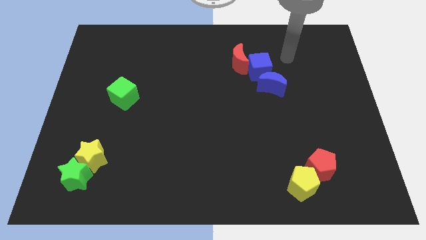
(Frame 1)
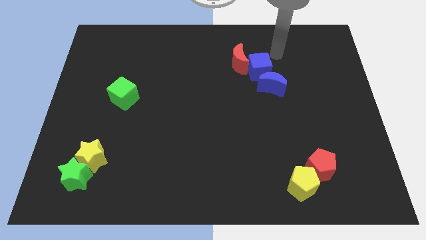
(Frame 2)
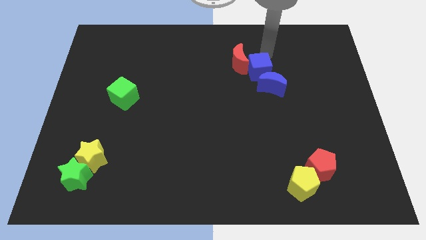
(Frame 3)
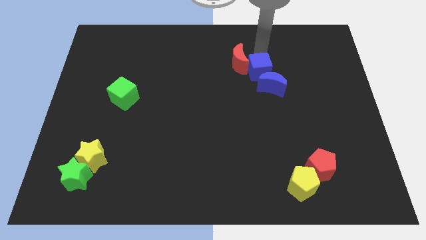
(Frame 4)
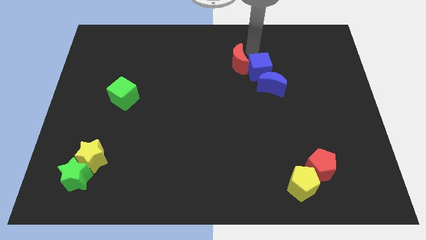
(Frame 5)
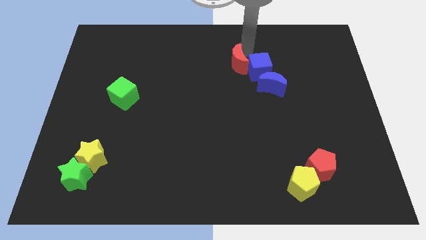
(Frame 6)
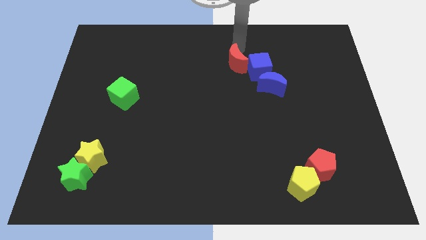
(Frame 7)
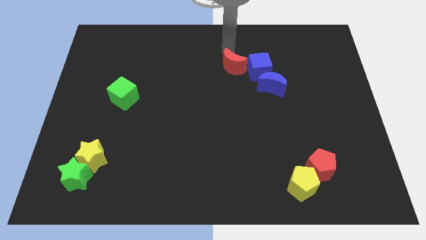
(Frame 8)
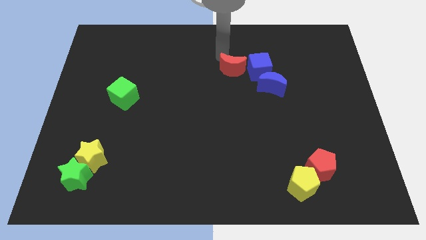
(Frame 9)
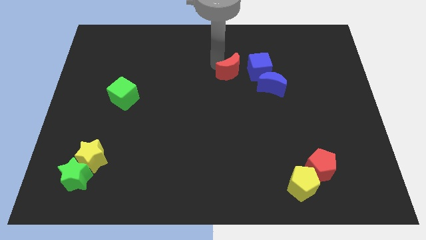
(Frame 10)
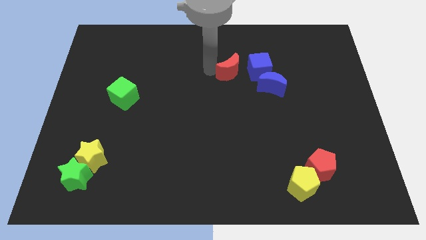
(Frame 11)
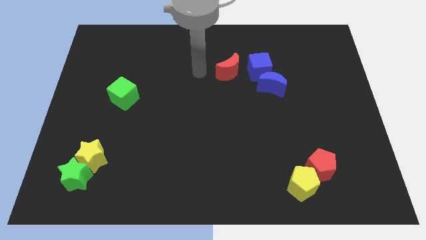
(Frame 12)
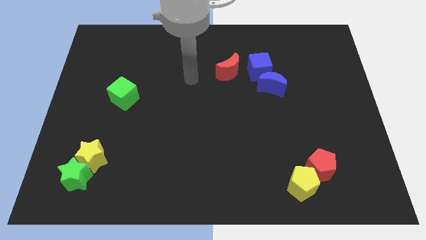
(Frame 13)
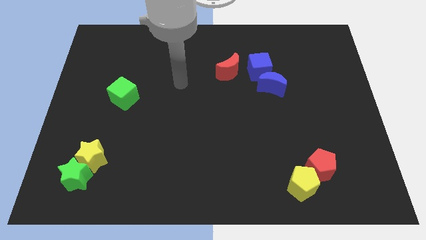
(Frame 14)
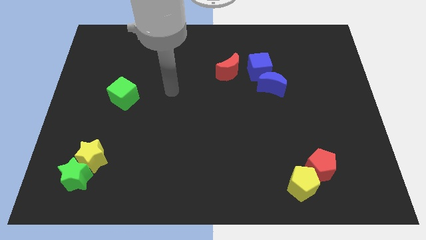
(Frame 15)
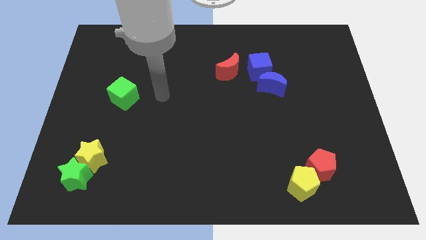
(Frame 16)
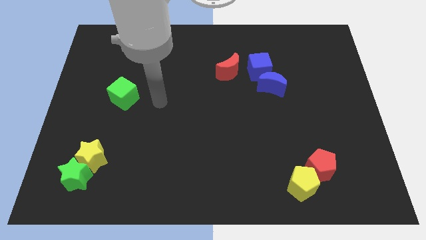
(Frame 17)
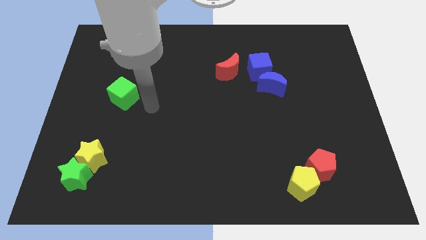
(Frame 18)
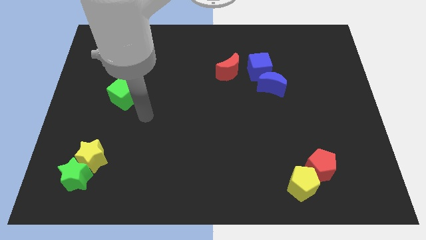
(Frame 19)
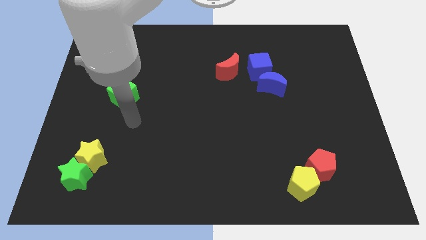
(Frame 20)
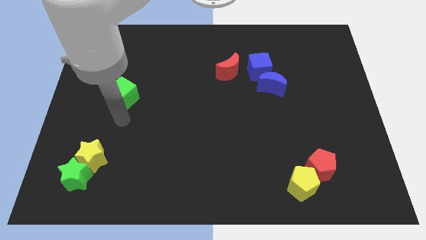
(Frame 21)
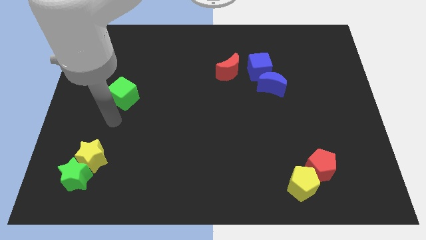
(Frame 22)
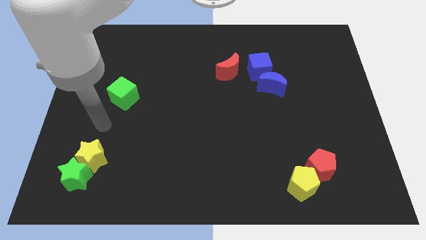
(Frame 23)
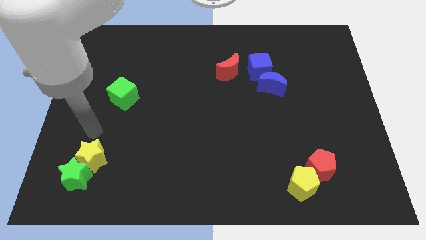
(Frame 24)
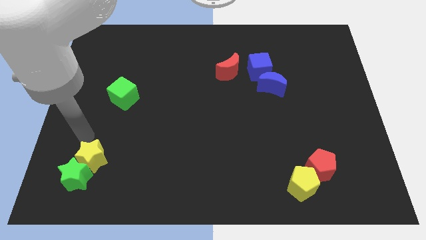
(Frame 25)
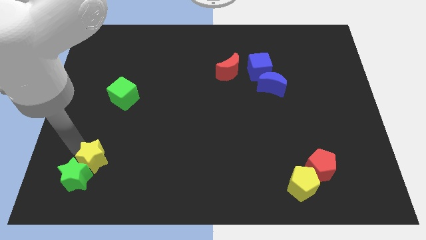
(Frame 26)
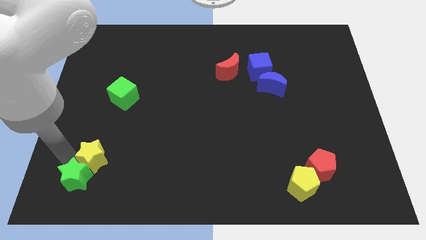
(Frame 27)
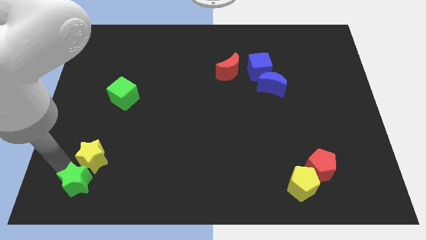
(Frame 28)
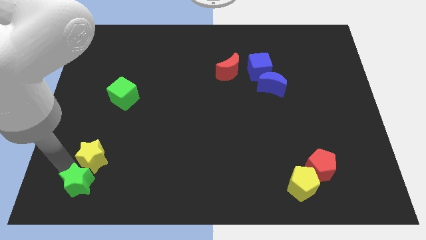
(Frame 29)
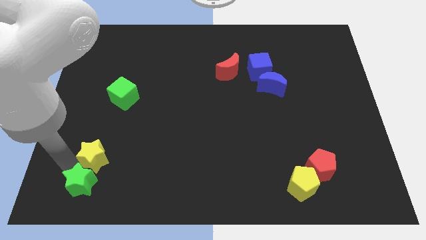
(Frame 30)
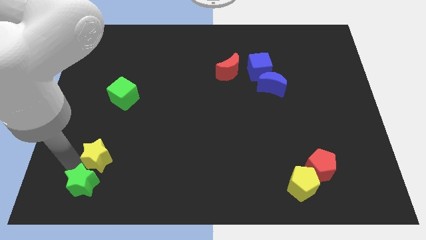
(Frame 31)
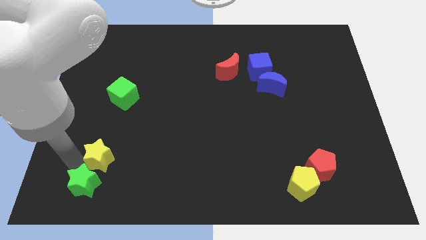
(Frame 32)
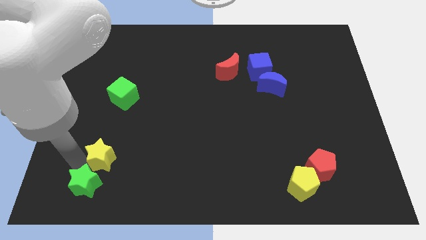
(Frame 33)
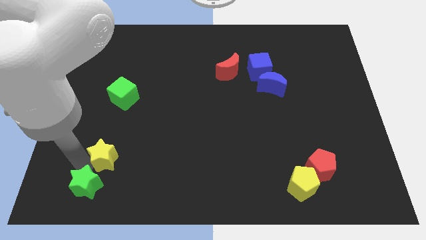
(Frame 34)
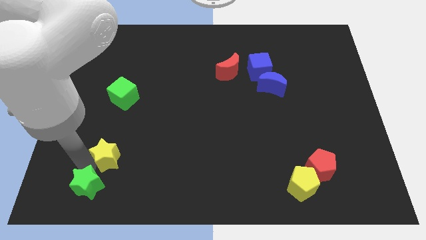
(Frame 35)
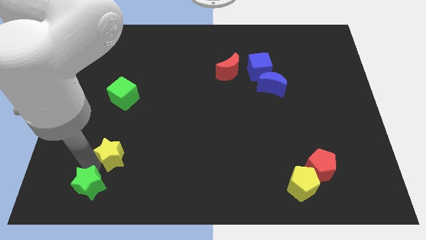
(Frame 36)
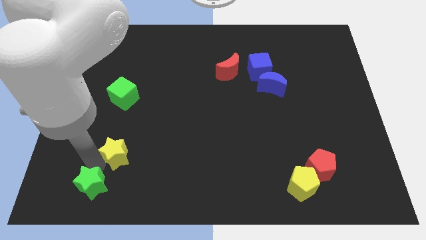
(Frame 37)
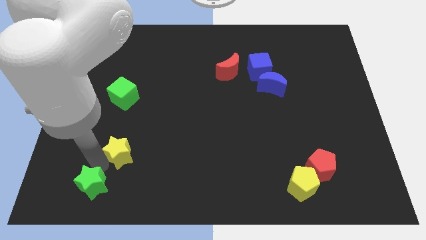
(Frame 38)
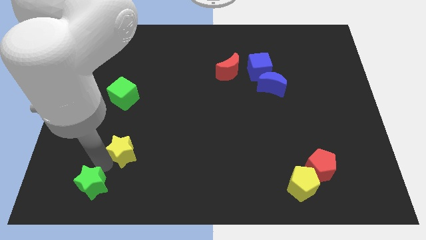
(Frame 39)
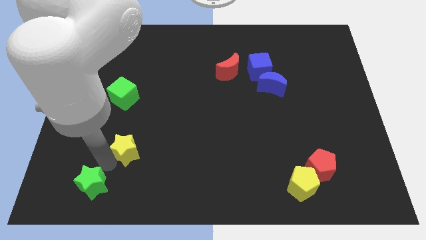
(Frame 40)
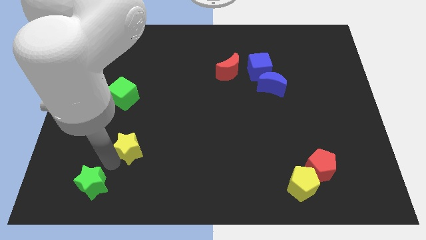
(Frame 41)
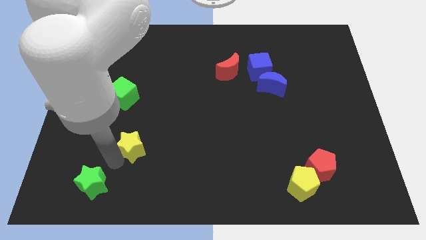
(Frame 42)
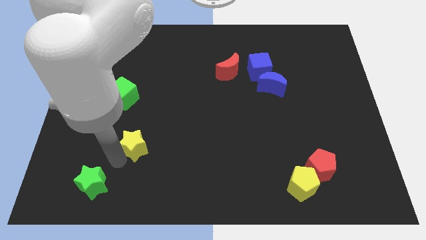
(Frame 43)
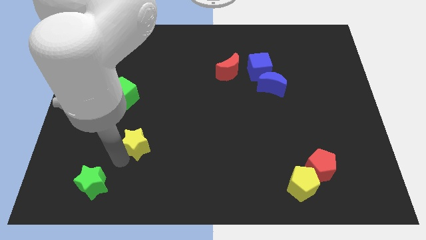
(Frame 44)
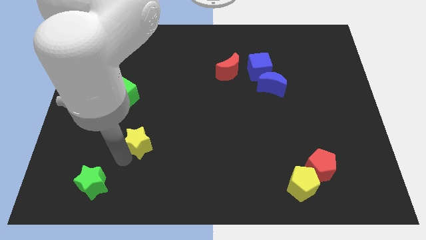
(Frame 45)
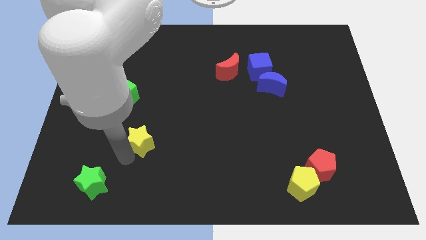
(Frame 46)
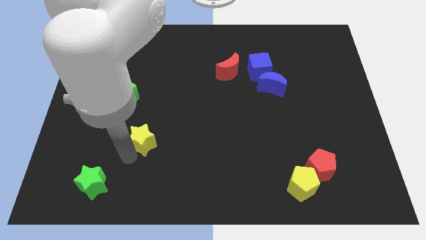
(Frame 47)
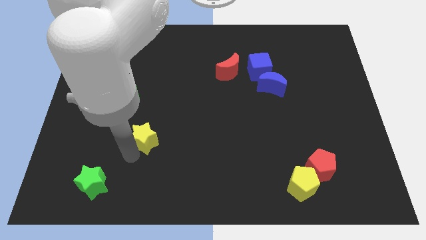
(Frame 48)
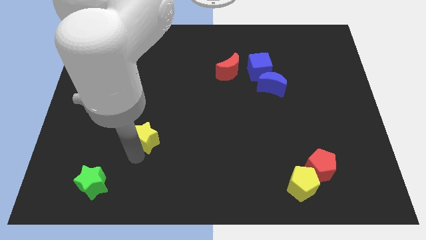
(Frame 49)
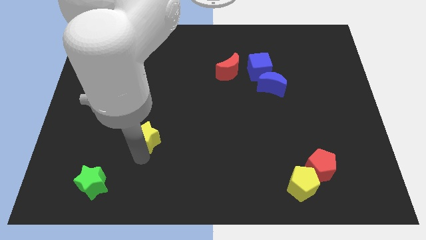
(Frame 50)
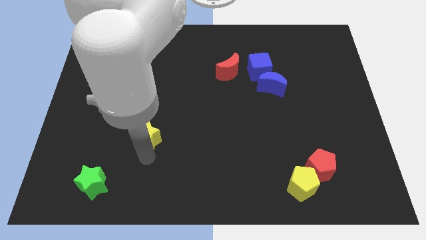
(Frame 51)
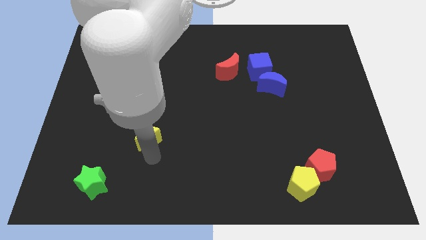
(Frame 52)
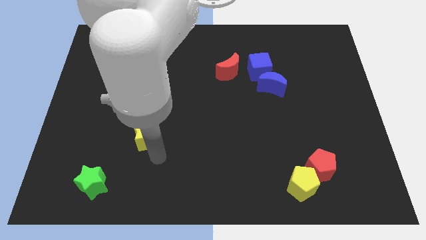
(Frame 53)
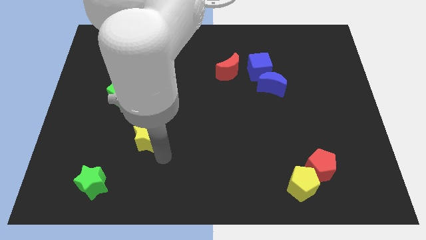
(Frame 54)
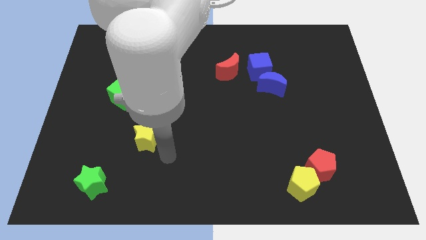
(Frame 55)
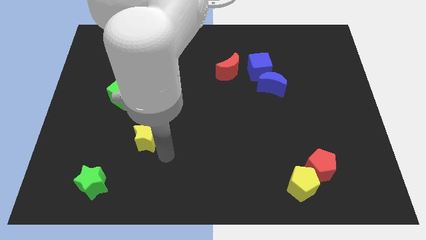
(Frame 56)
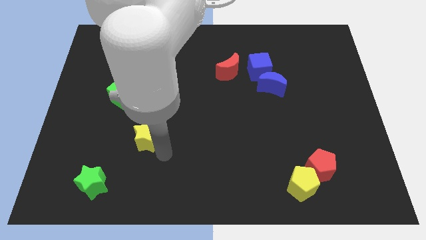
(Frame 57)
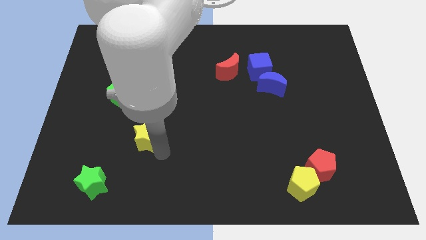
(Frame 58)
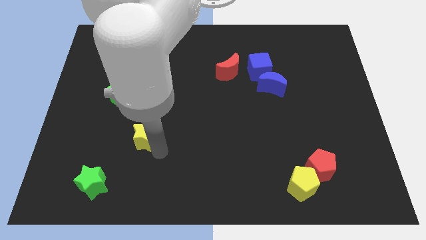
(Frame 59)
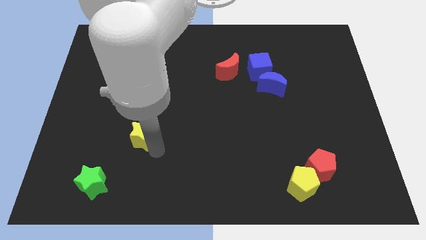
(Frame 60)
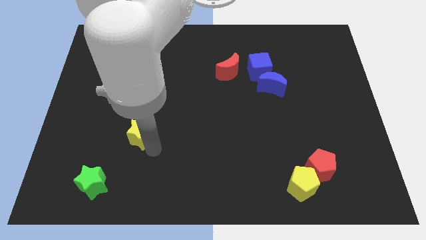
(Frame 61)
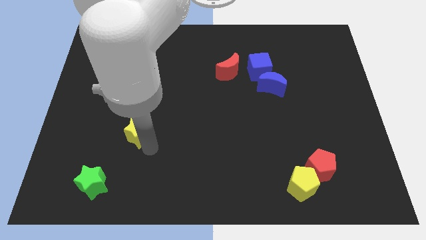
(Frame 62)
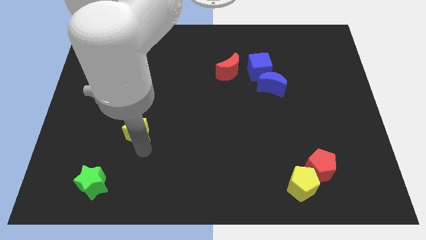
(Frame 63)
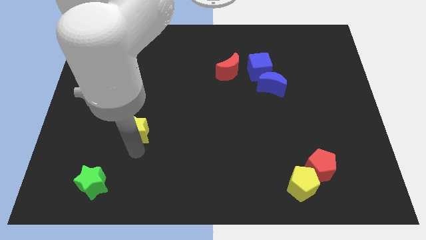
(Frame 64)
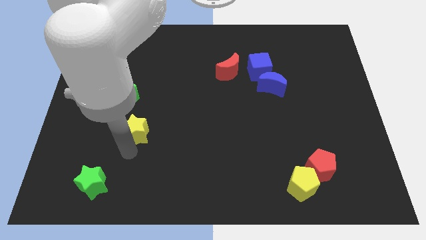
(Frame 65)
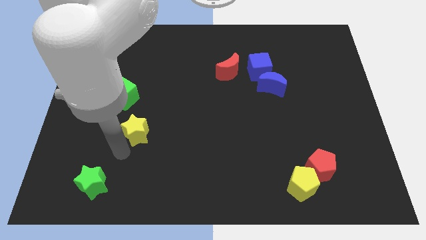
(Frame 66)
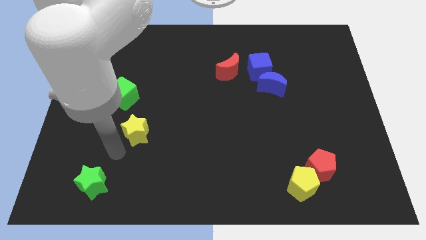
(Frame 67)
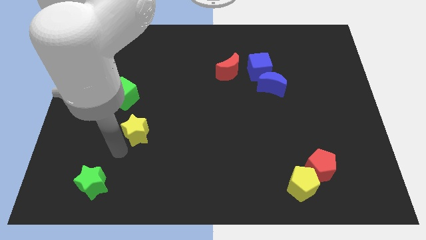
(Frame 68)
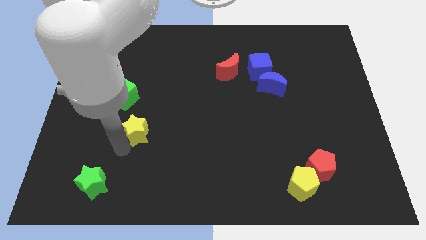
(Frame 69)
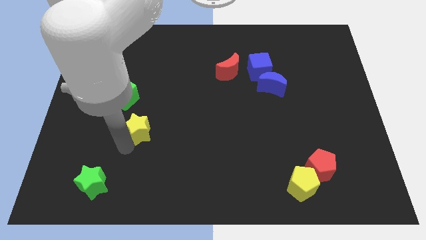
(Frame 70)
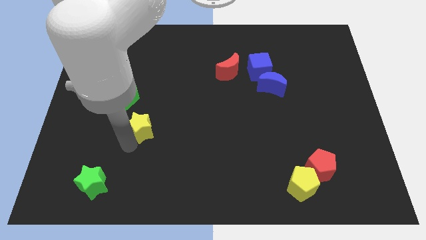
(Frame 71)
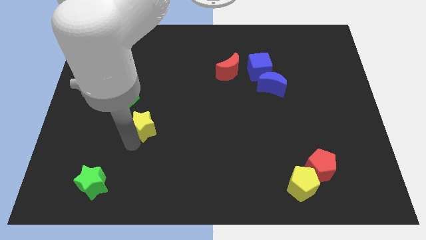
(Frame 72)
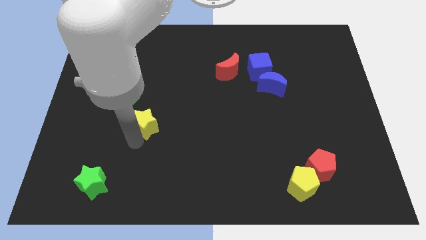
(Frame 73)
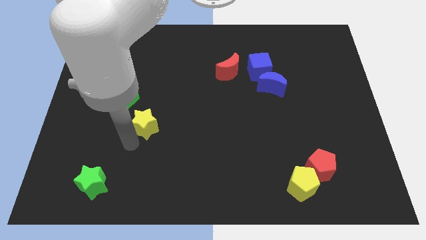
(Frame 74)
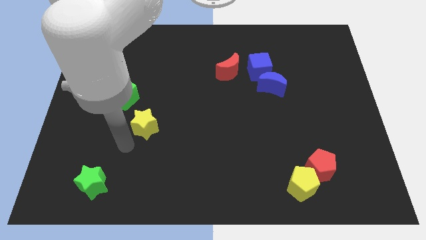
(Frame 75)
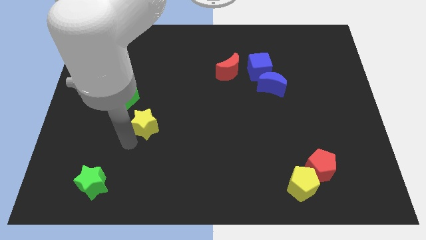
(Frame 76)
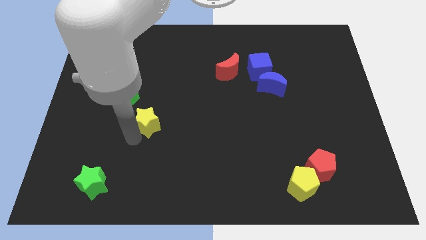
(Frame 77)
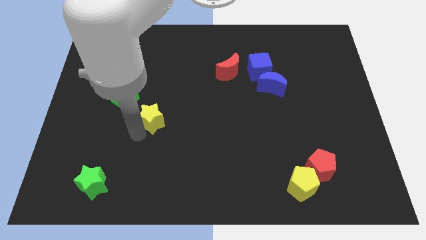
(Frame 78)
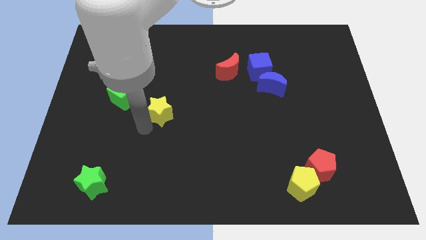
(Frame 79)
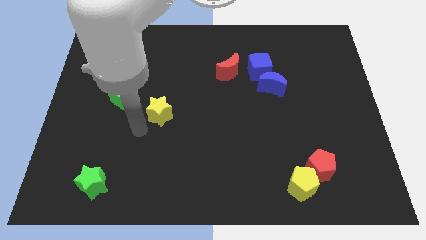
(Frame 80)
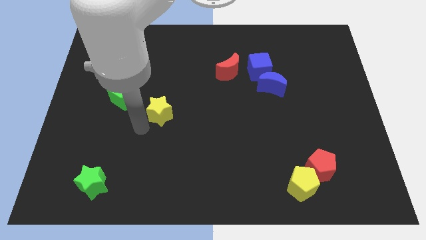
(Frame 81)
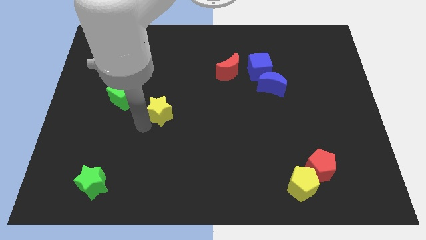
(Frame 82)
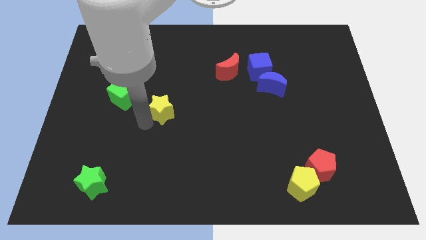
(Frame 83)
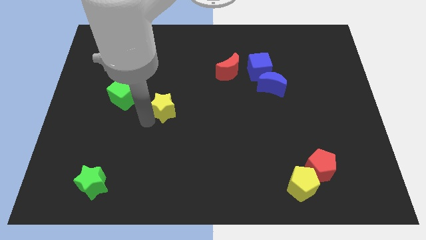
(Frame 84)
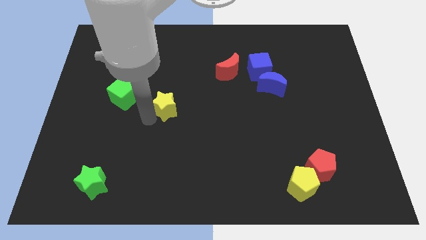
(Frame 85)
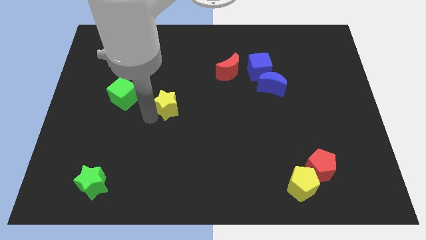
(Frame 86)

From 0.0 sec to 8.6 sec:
slide the yellow star up and then to the right
